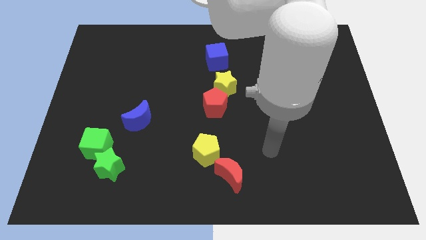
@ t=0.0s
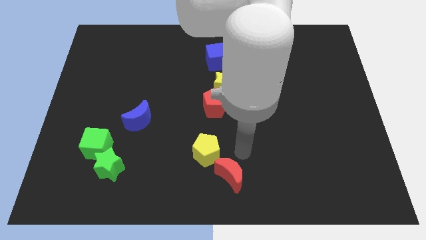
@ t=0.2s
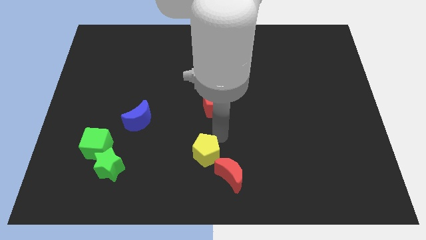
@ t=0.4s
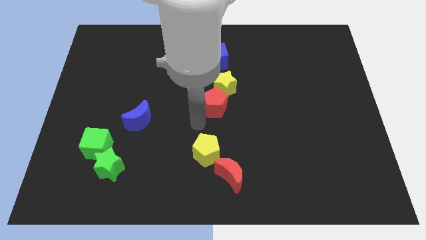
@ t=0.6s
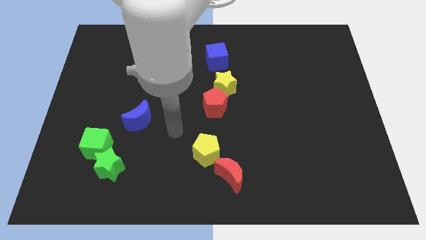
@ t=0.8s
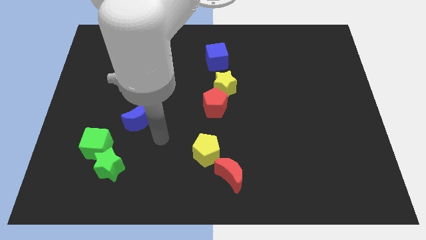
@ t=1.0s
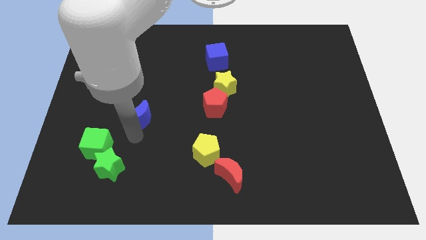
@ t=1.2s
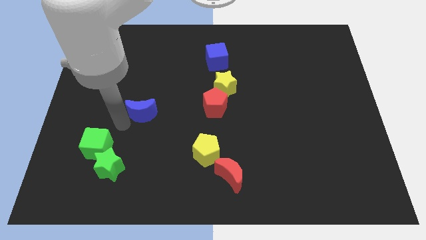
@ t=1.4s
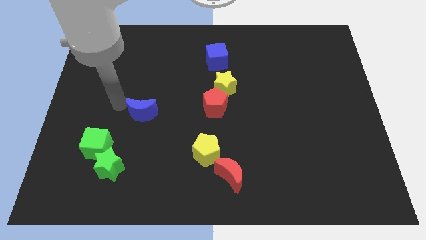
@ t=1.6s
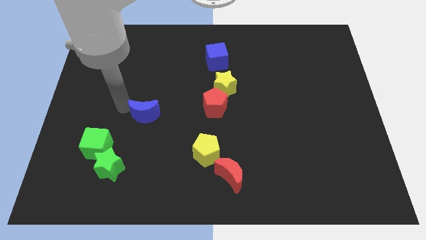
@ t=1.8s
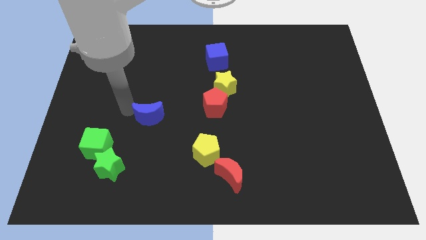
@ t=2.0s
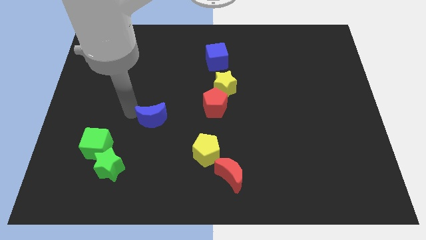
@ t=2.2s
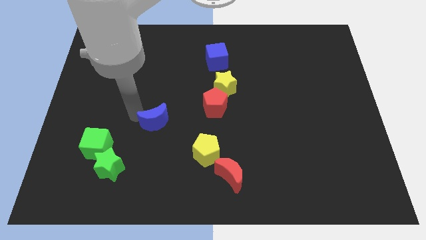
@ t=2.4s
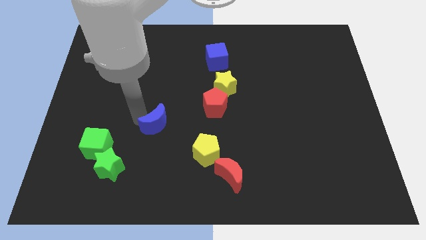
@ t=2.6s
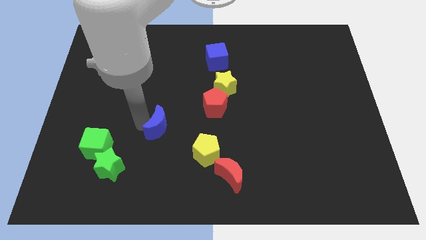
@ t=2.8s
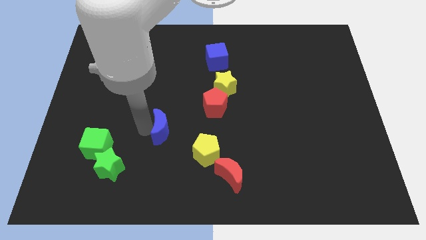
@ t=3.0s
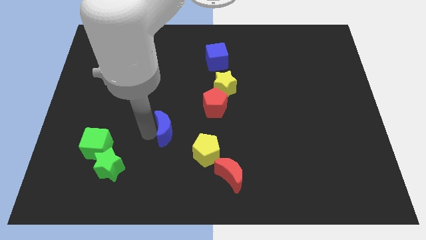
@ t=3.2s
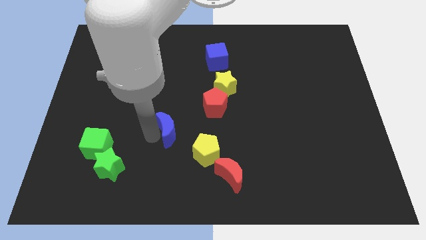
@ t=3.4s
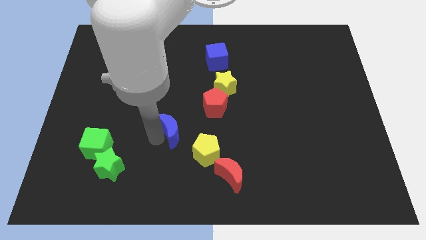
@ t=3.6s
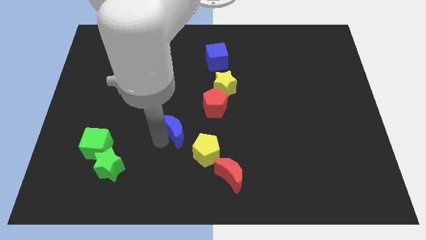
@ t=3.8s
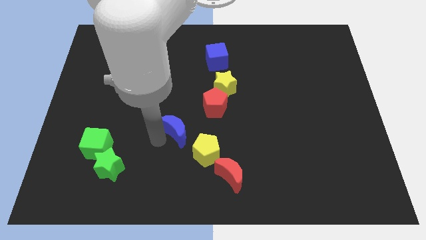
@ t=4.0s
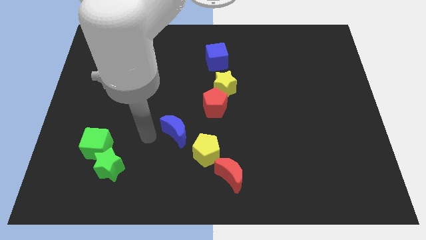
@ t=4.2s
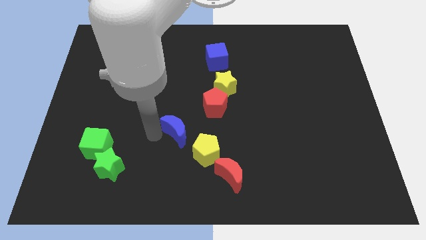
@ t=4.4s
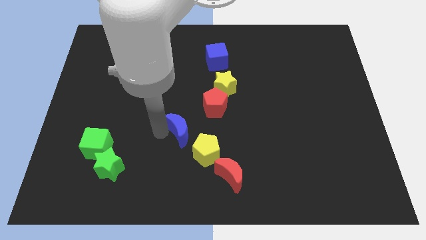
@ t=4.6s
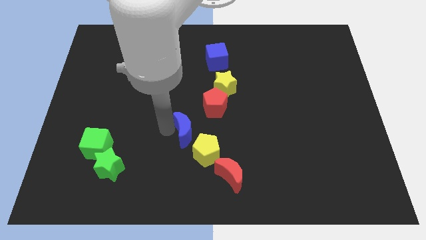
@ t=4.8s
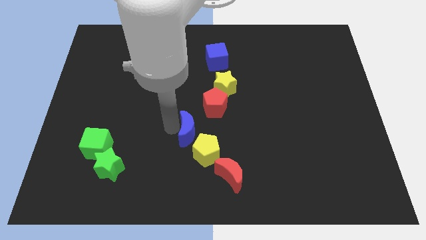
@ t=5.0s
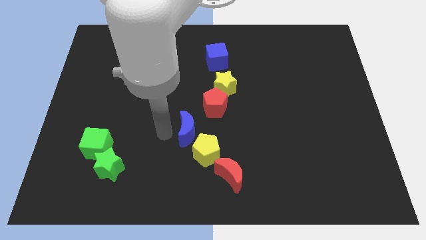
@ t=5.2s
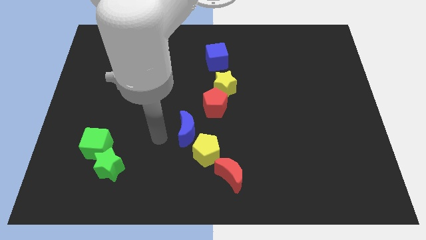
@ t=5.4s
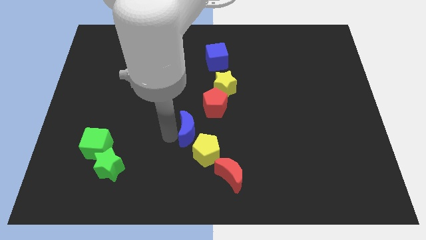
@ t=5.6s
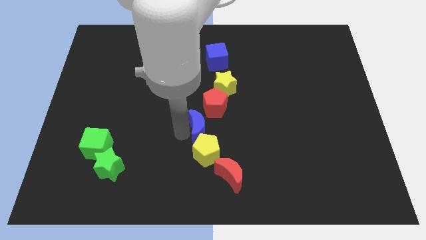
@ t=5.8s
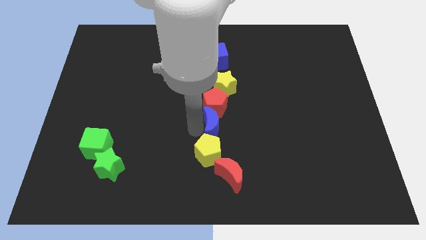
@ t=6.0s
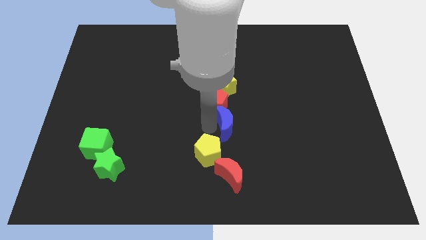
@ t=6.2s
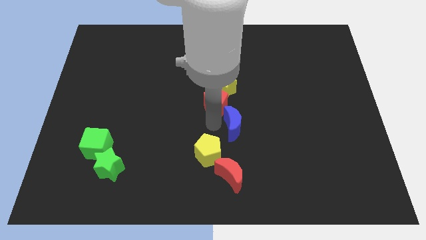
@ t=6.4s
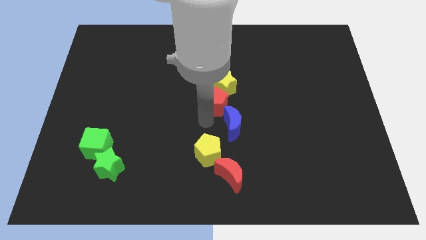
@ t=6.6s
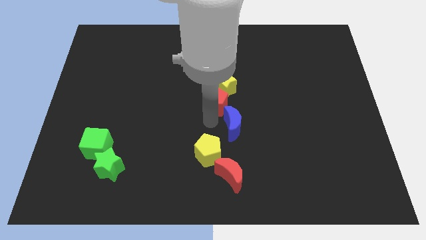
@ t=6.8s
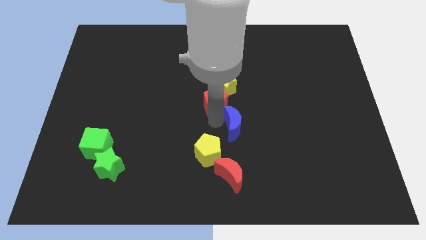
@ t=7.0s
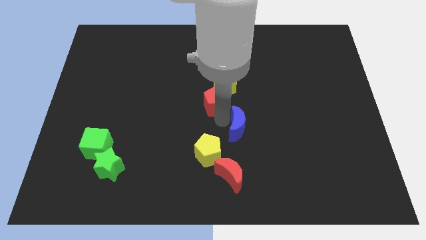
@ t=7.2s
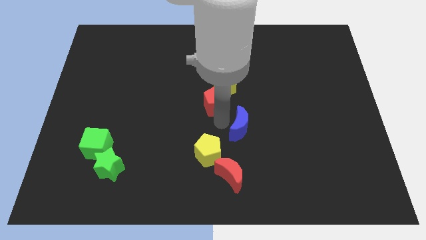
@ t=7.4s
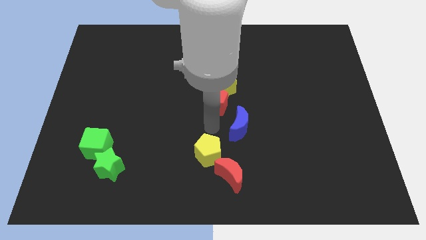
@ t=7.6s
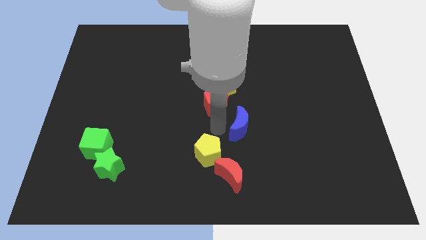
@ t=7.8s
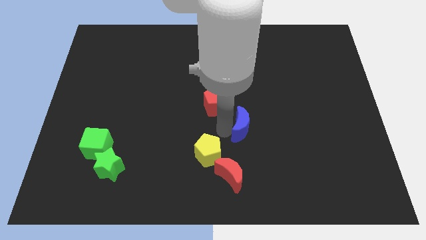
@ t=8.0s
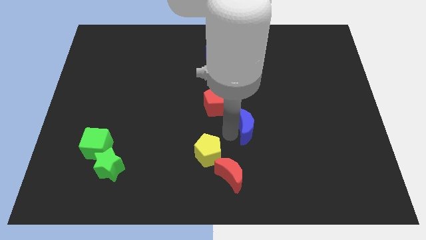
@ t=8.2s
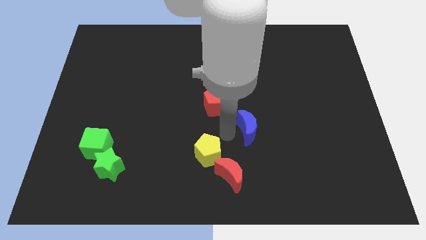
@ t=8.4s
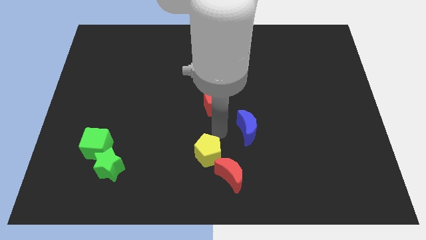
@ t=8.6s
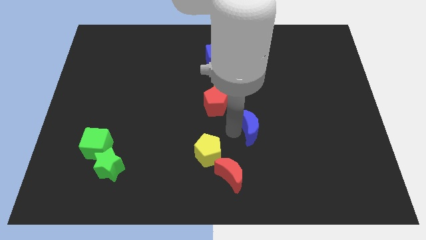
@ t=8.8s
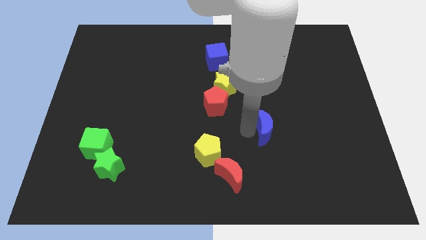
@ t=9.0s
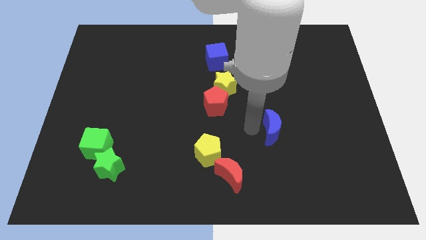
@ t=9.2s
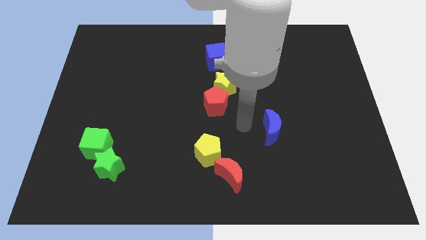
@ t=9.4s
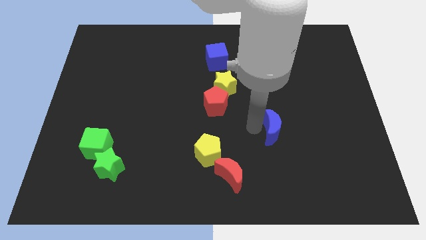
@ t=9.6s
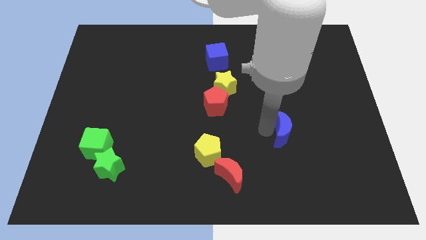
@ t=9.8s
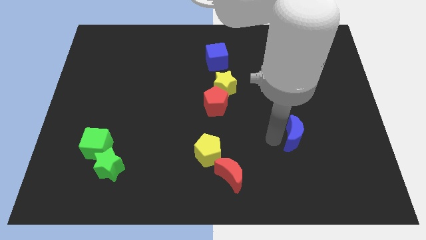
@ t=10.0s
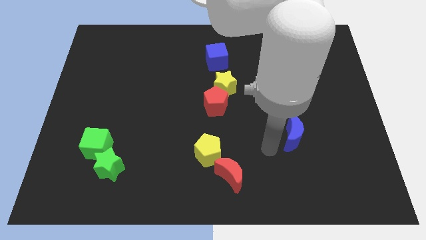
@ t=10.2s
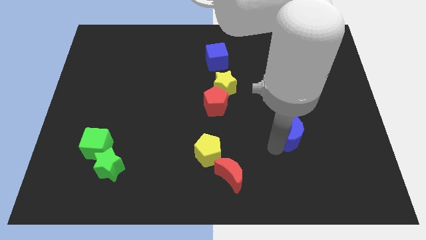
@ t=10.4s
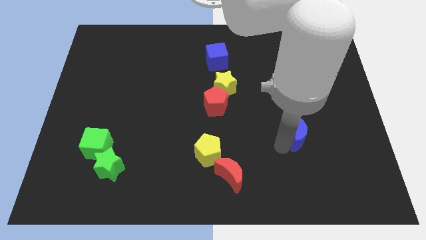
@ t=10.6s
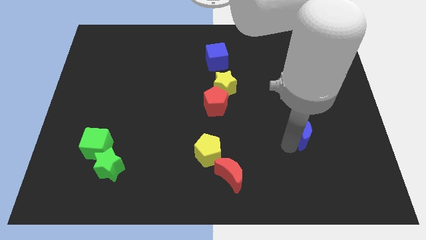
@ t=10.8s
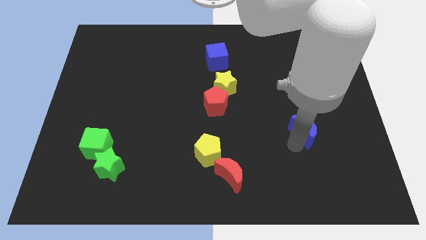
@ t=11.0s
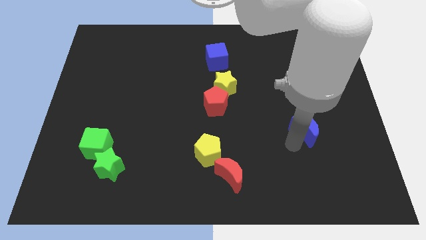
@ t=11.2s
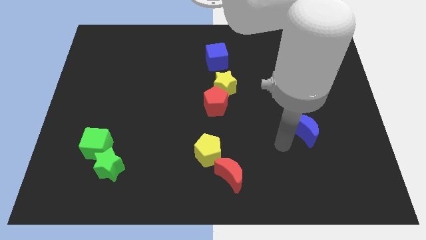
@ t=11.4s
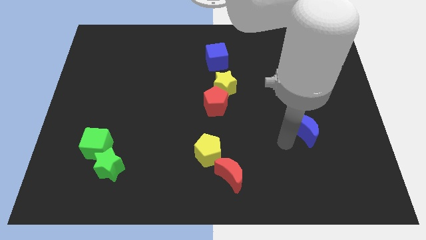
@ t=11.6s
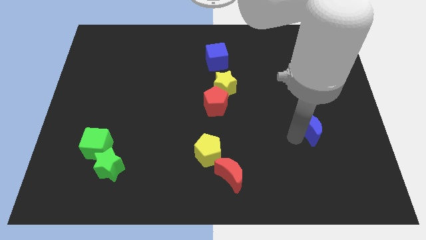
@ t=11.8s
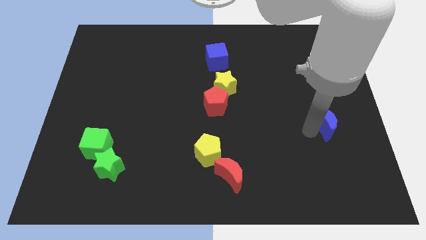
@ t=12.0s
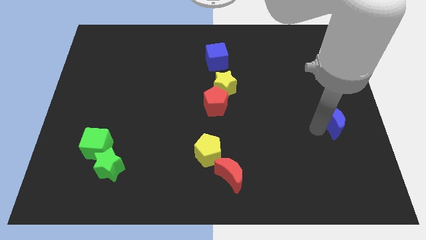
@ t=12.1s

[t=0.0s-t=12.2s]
move the blue moon to the right side of the board

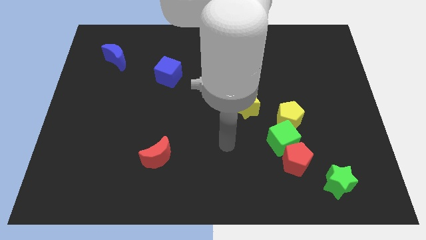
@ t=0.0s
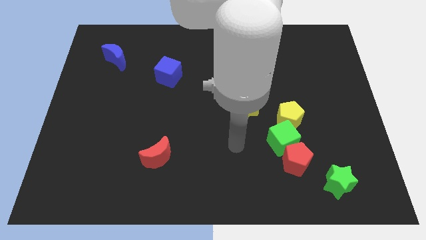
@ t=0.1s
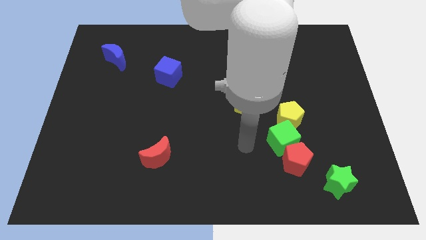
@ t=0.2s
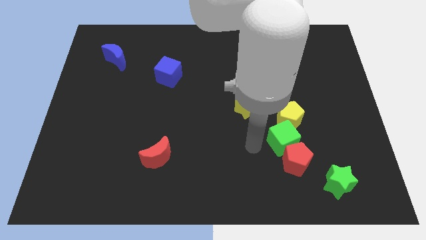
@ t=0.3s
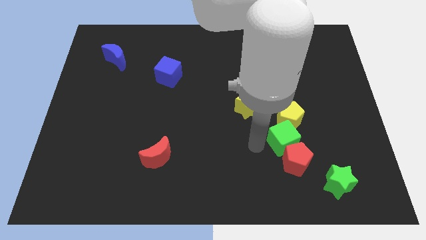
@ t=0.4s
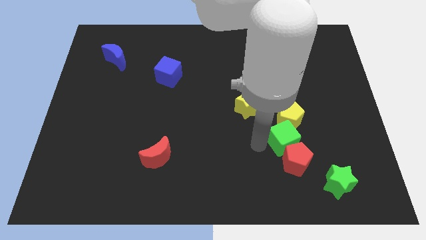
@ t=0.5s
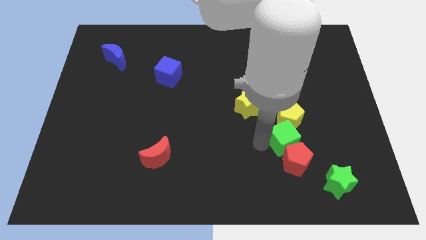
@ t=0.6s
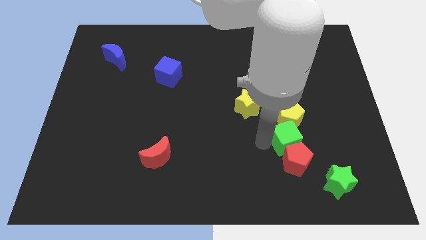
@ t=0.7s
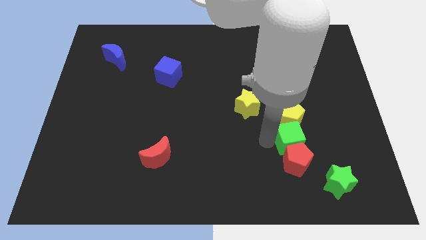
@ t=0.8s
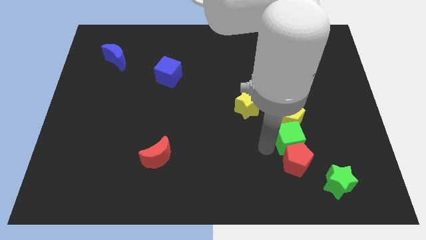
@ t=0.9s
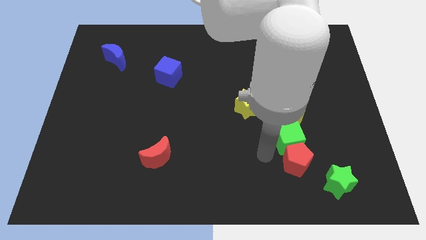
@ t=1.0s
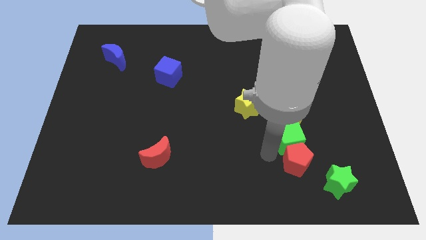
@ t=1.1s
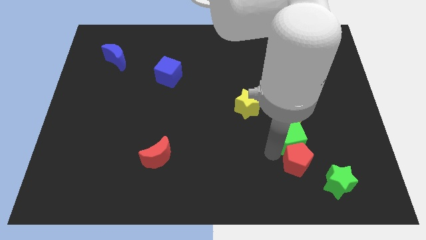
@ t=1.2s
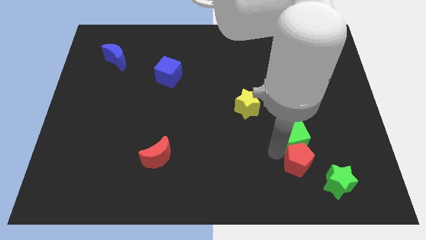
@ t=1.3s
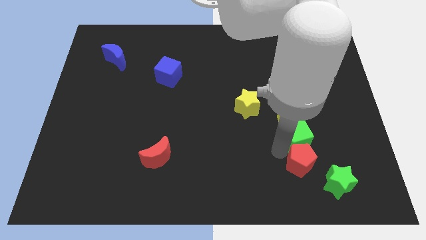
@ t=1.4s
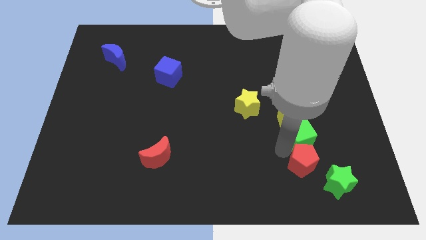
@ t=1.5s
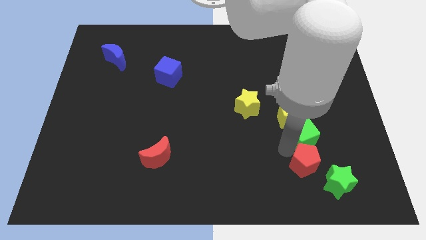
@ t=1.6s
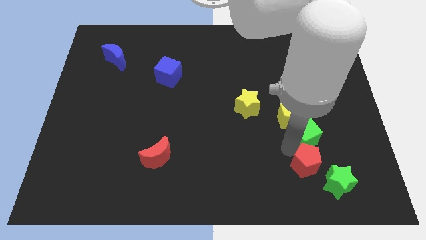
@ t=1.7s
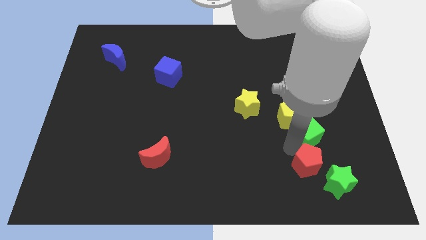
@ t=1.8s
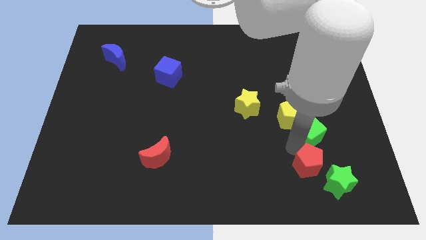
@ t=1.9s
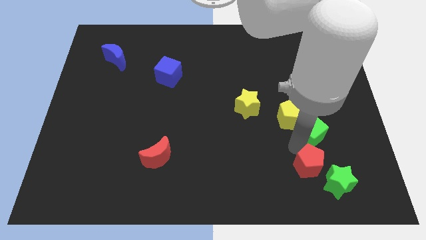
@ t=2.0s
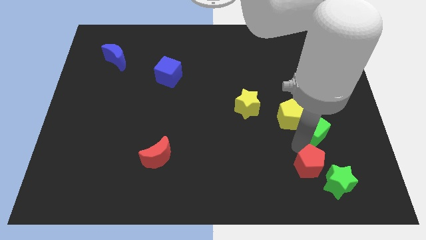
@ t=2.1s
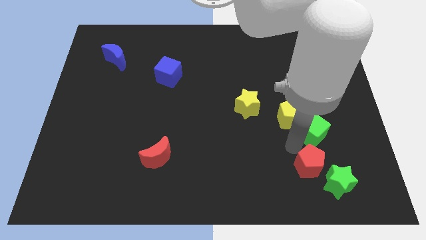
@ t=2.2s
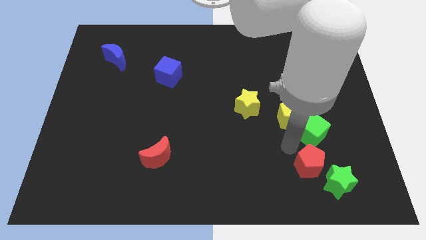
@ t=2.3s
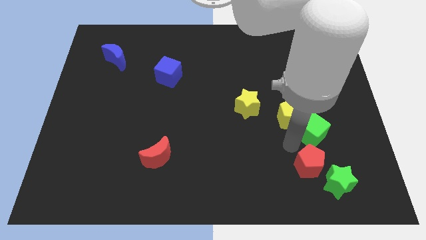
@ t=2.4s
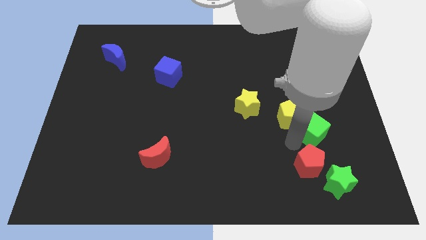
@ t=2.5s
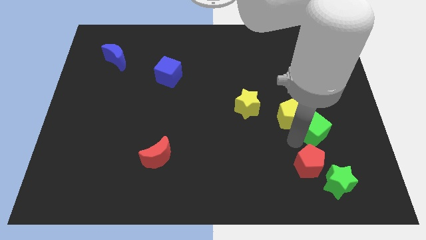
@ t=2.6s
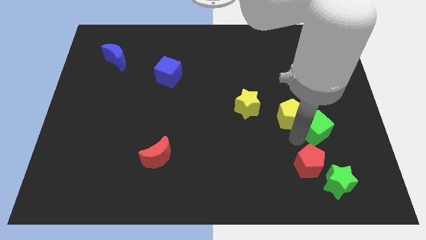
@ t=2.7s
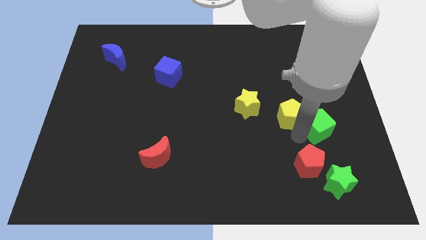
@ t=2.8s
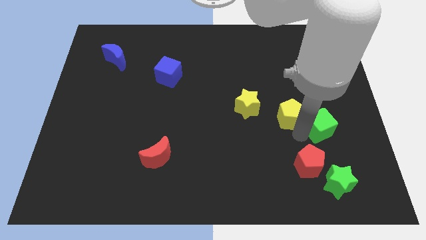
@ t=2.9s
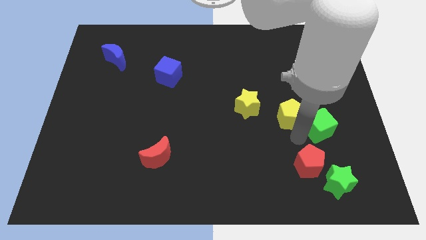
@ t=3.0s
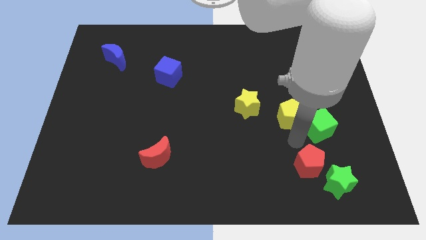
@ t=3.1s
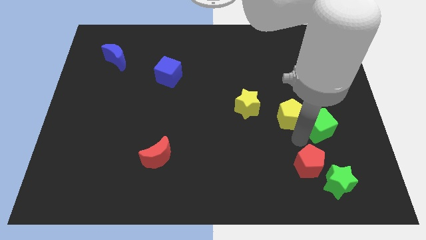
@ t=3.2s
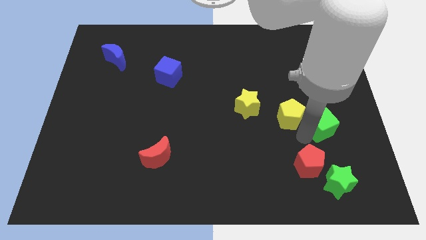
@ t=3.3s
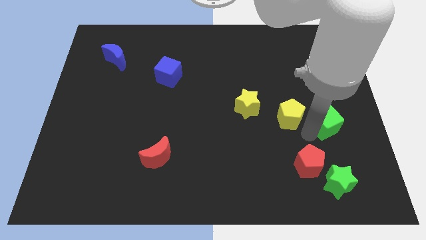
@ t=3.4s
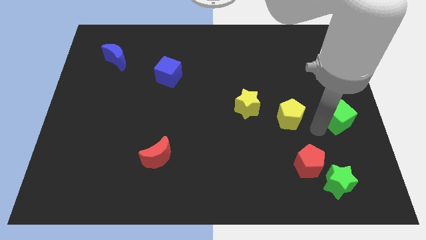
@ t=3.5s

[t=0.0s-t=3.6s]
push the green cube to the right side
